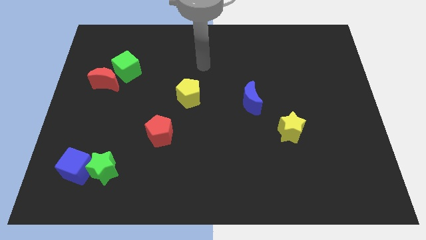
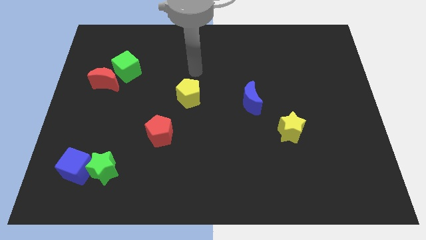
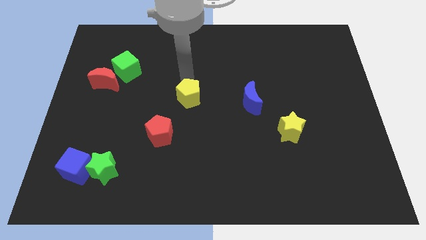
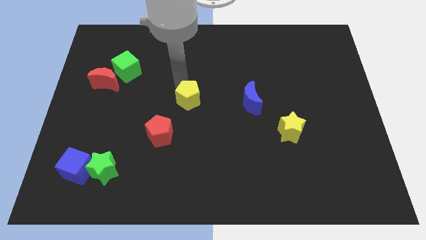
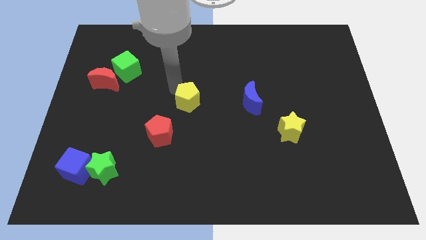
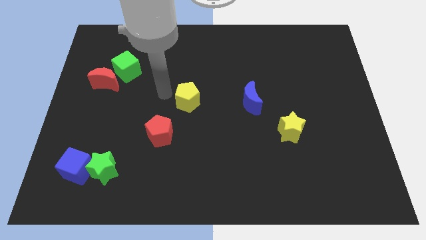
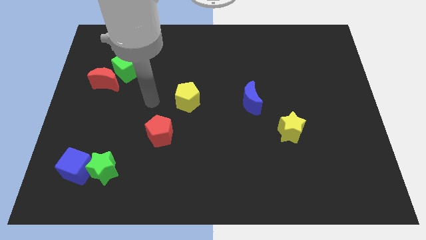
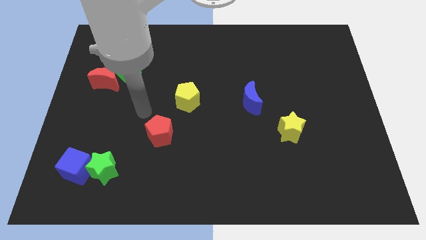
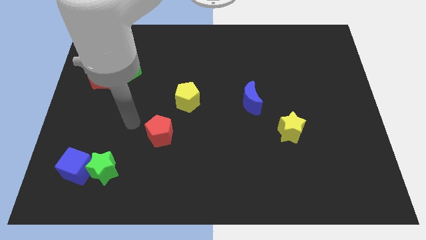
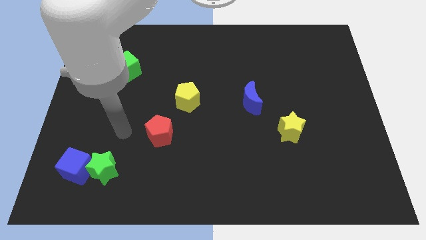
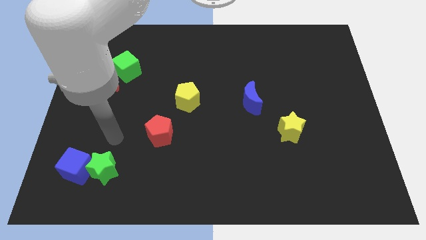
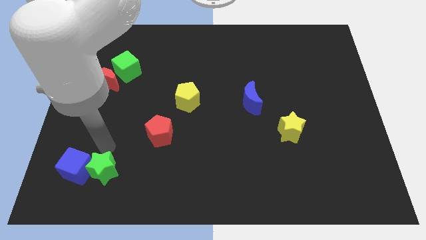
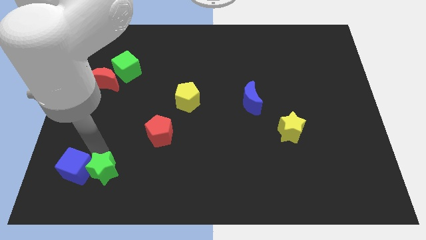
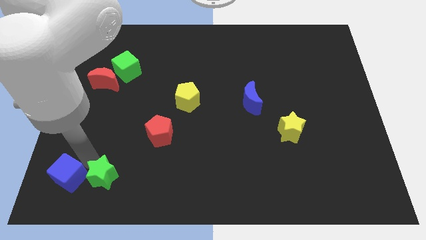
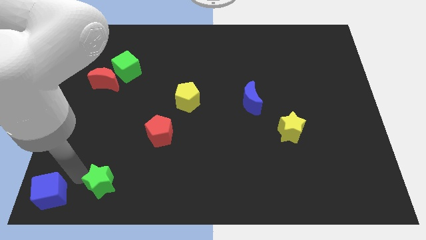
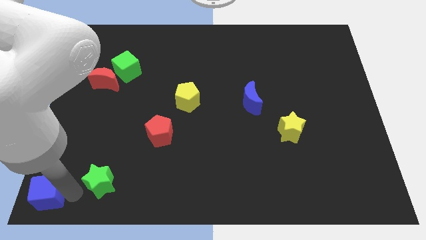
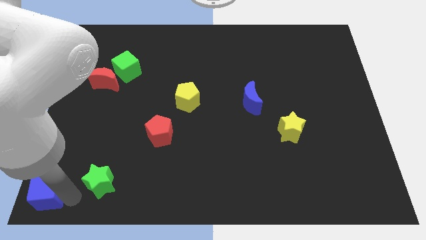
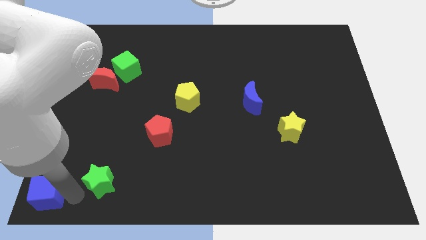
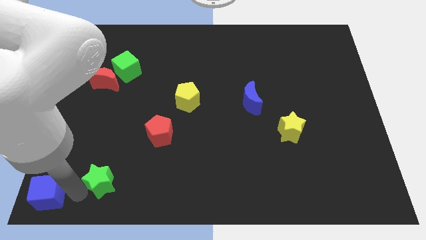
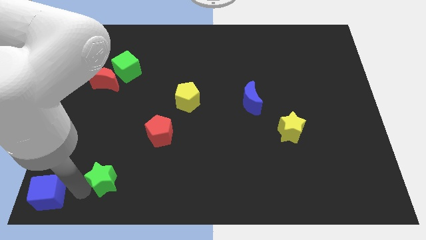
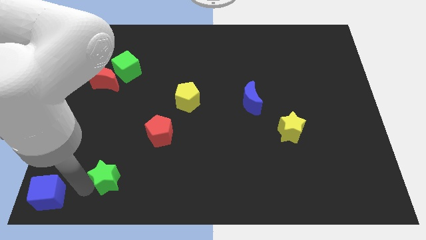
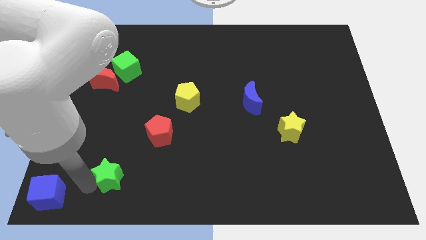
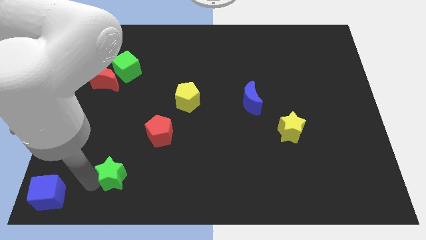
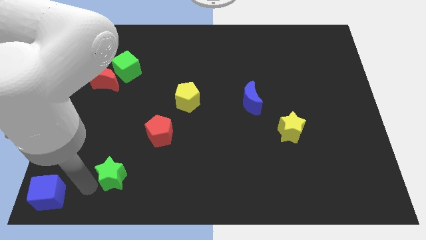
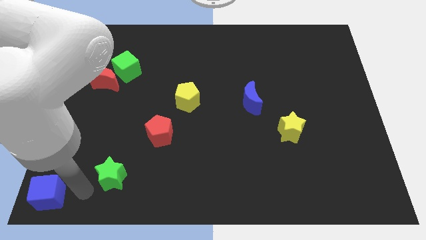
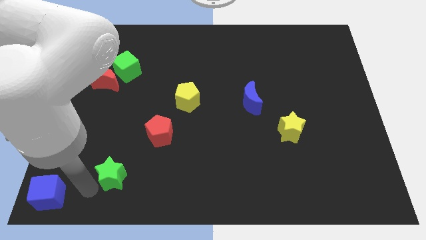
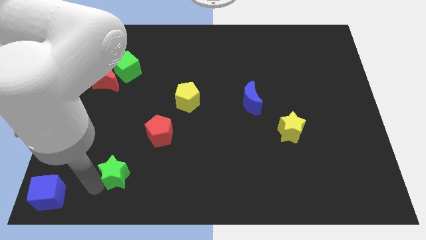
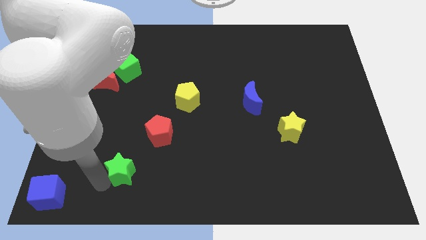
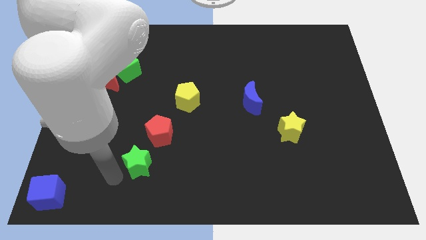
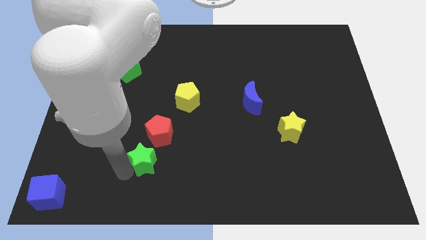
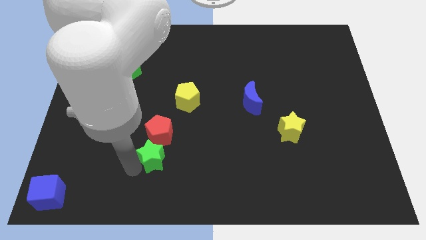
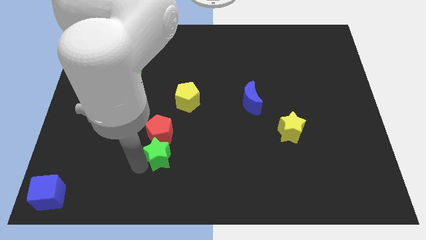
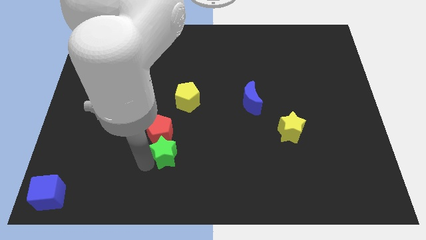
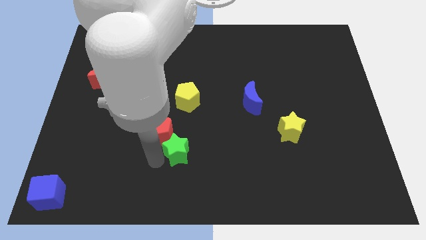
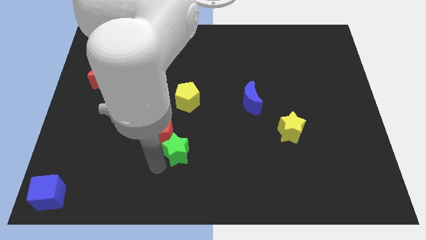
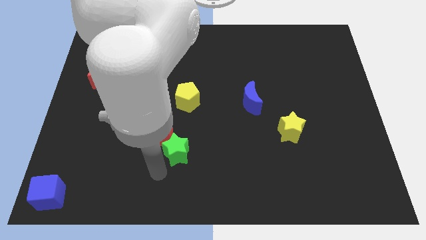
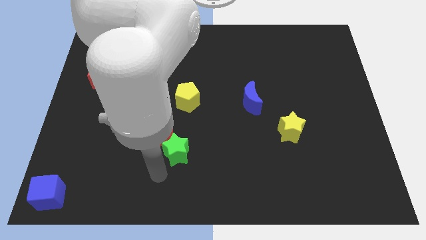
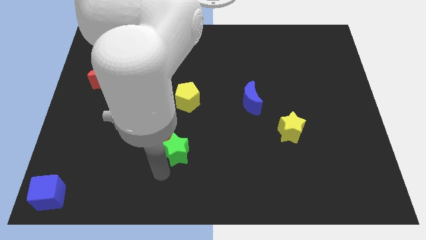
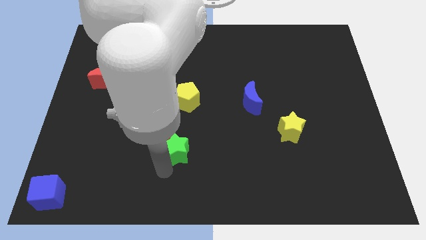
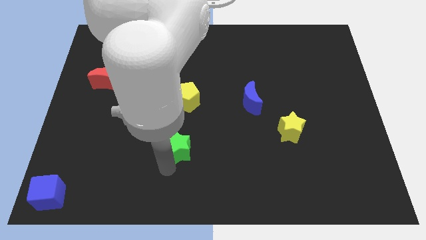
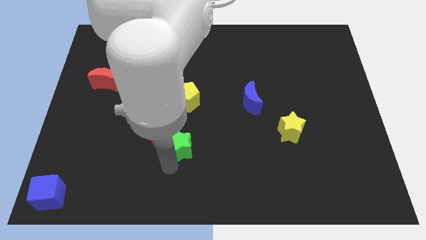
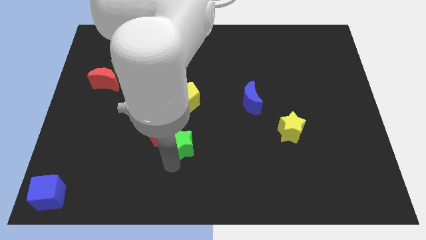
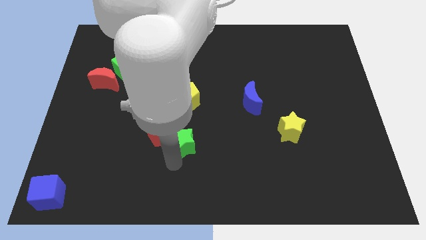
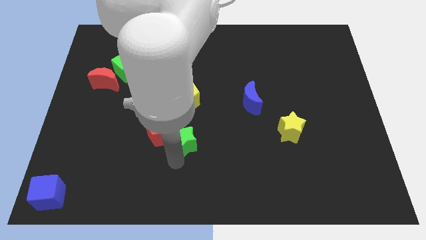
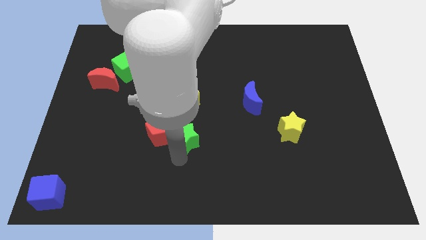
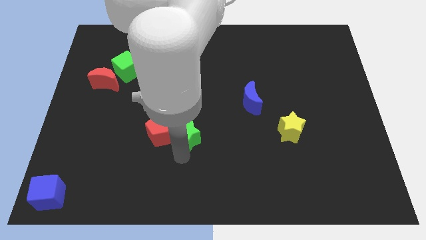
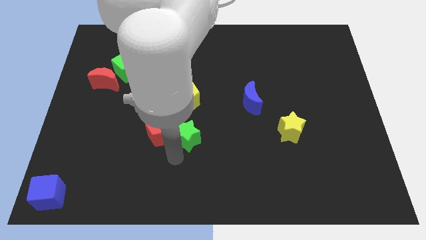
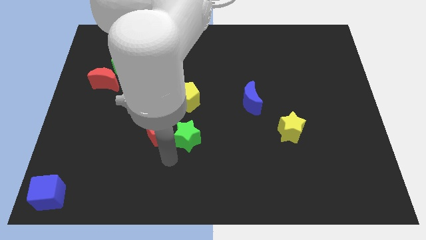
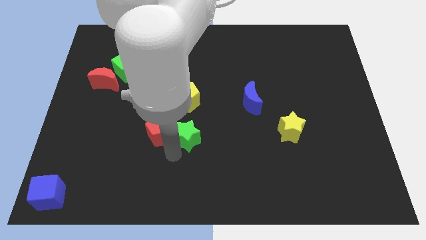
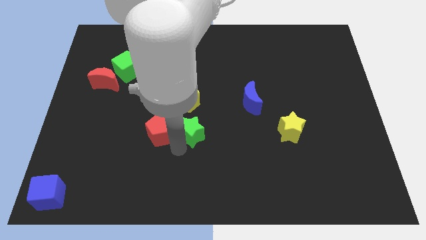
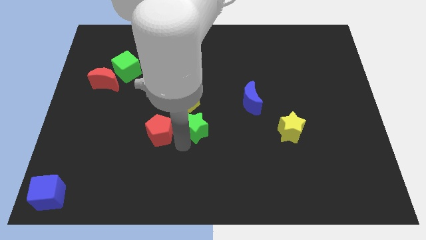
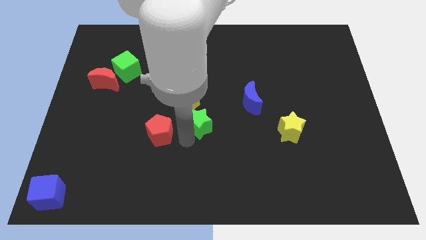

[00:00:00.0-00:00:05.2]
slide the green star diagonally up and right

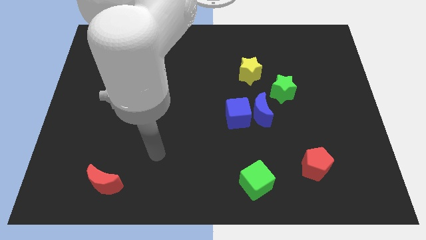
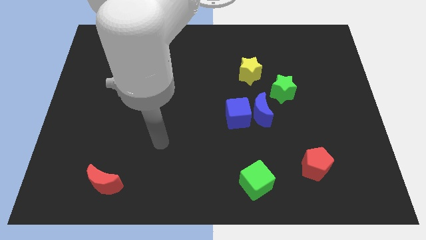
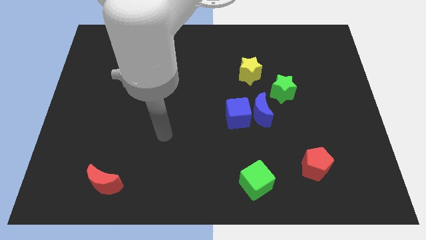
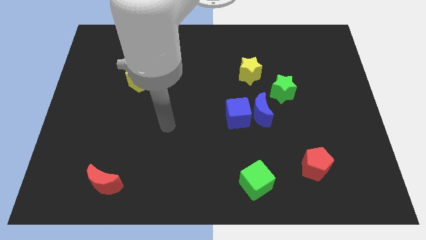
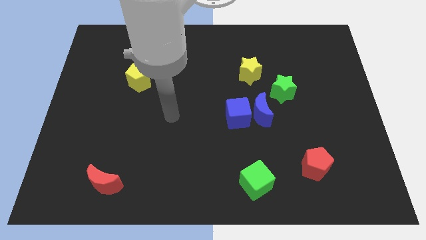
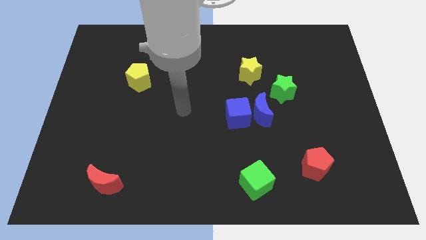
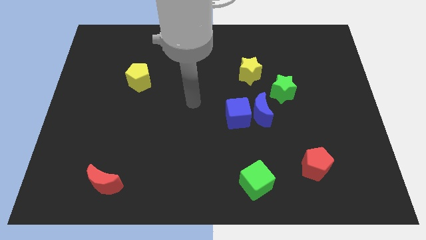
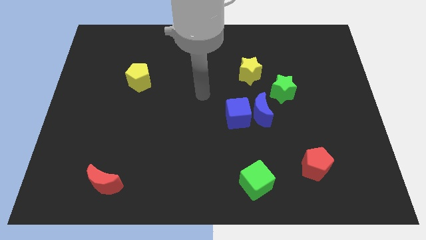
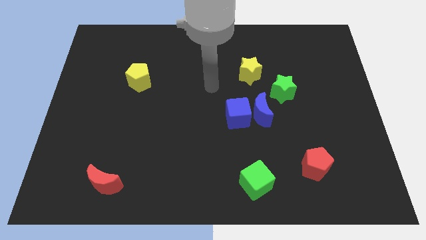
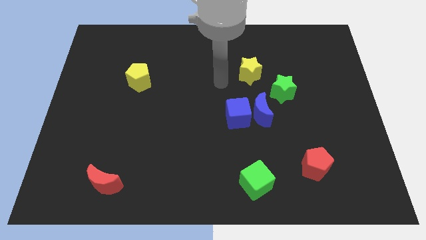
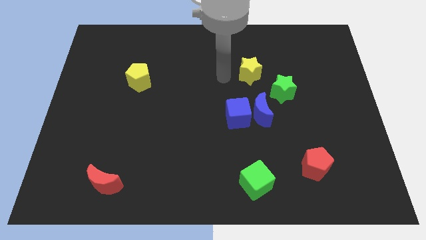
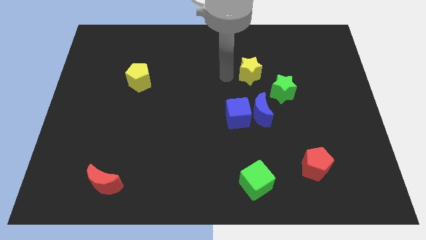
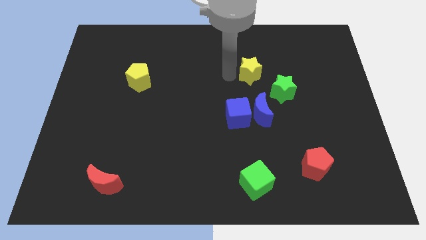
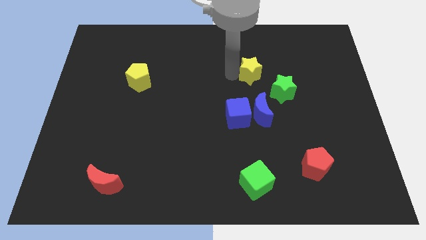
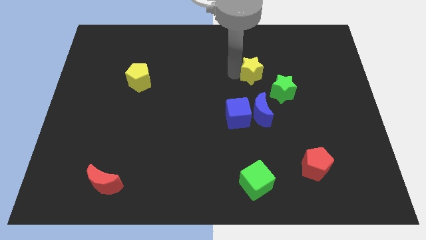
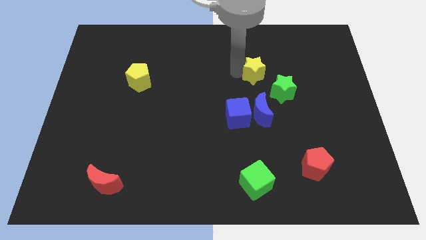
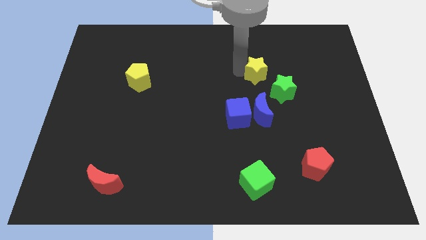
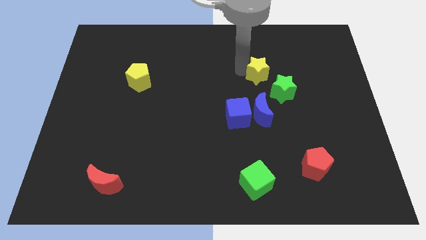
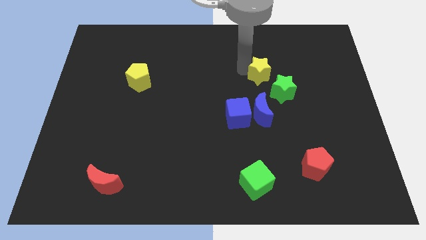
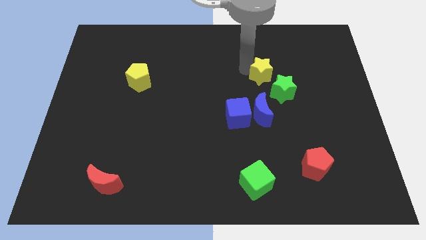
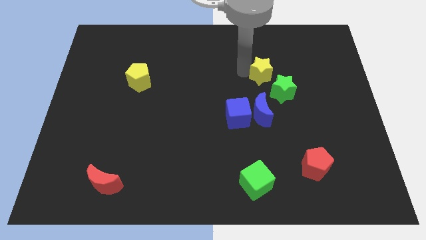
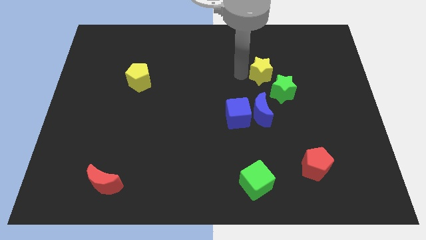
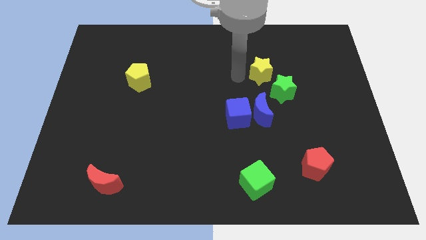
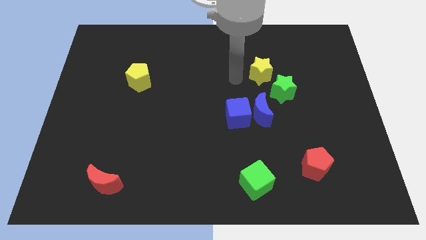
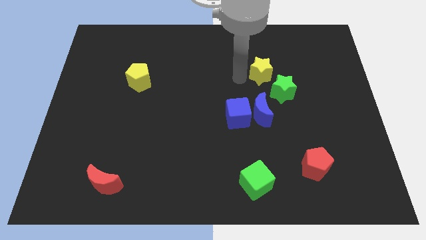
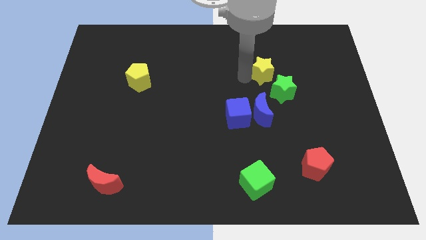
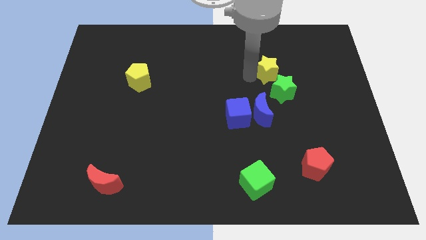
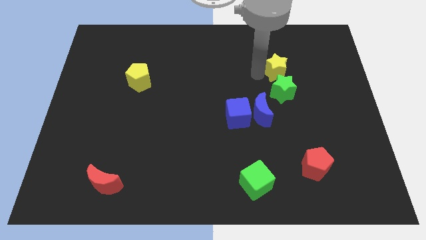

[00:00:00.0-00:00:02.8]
slide the yellow star right slightly
